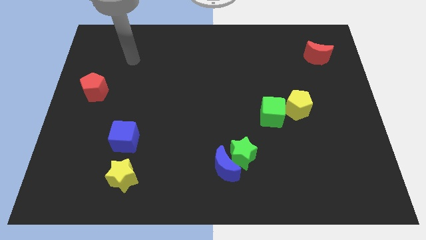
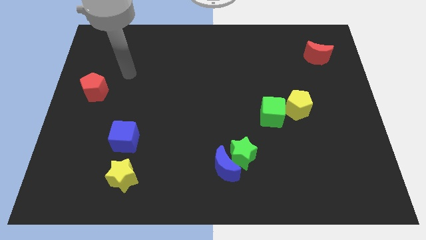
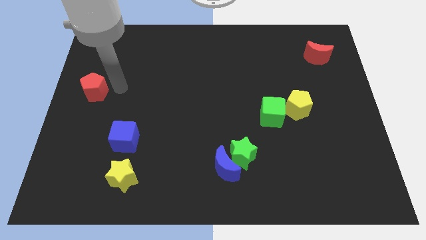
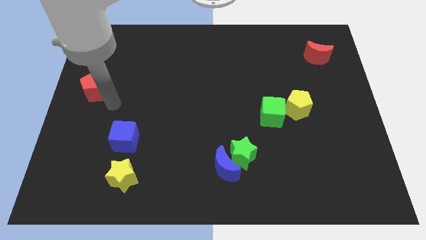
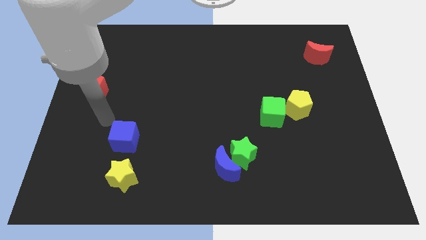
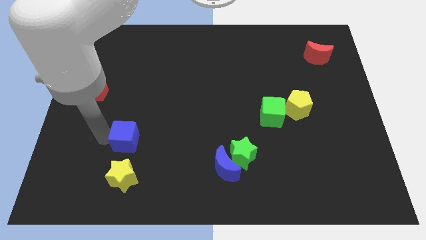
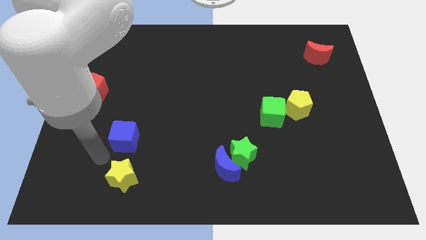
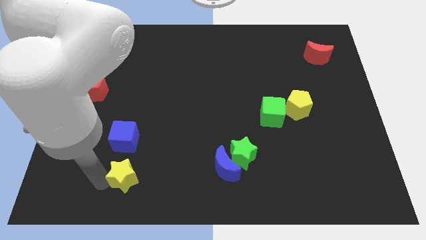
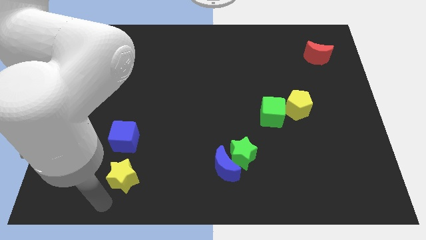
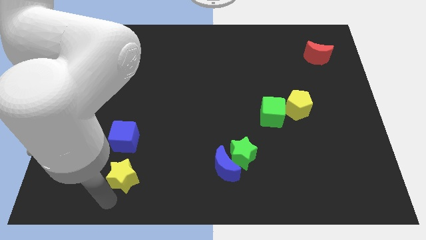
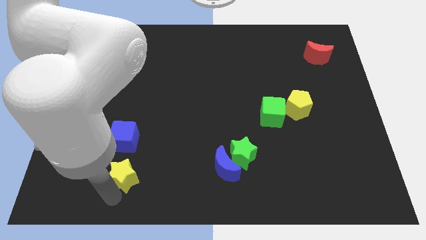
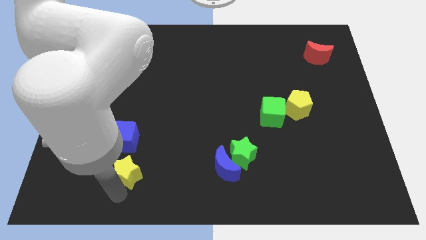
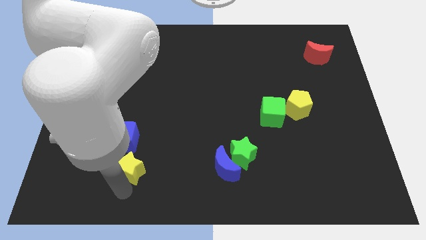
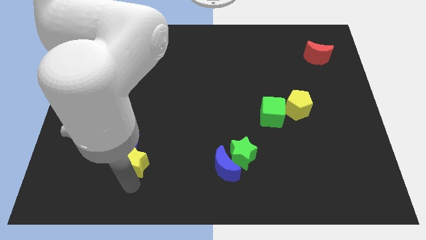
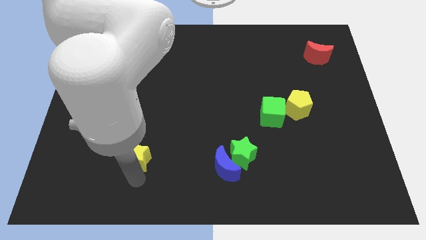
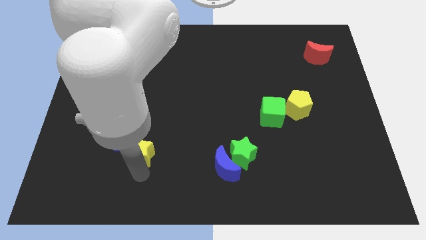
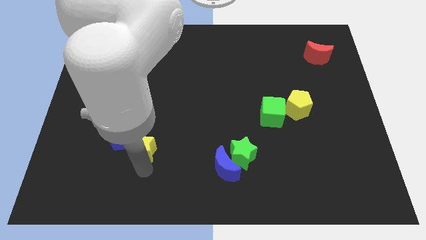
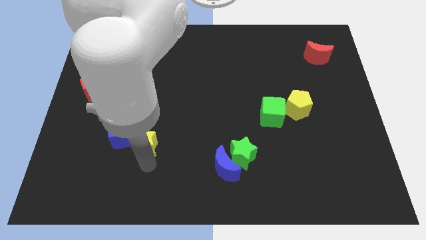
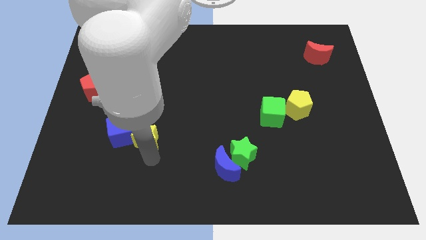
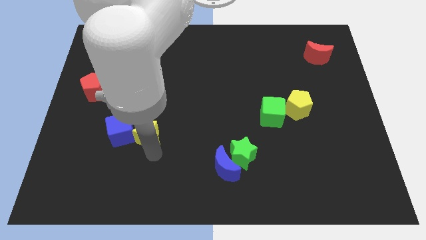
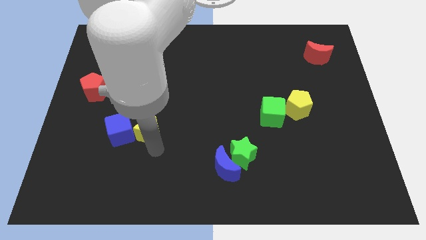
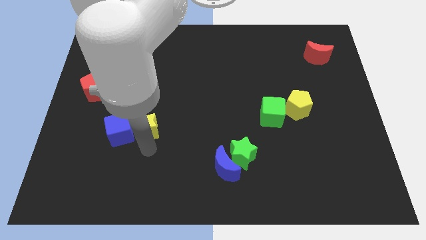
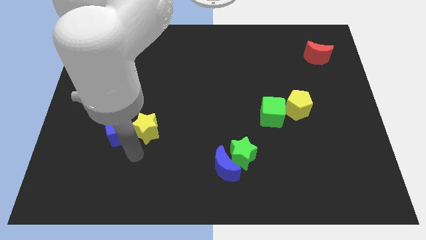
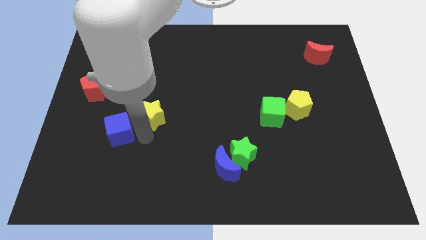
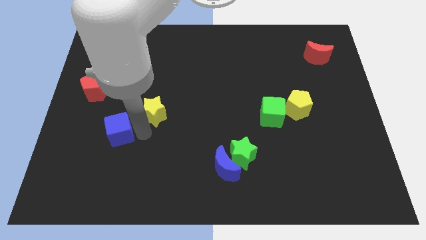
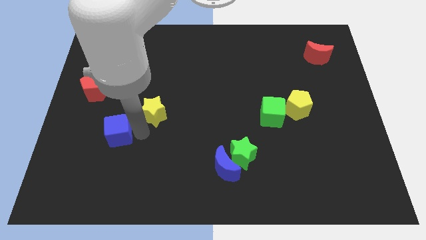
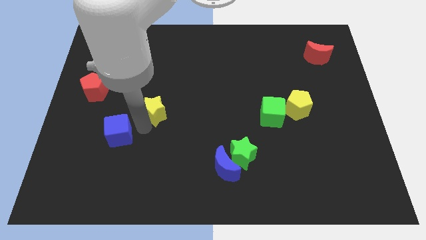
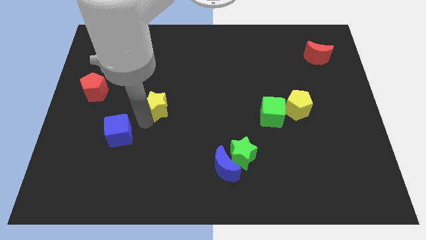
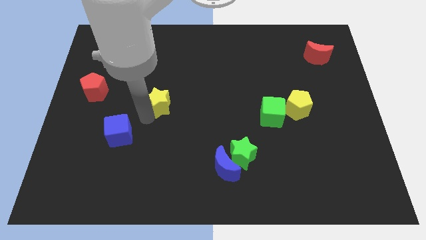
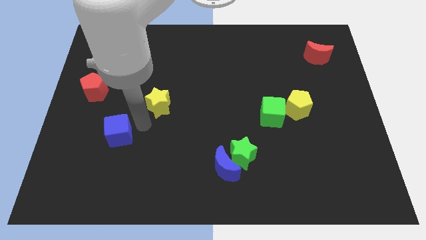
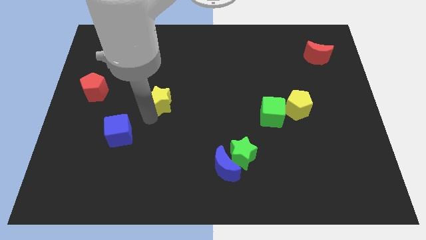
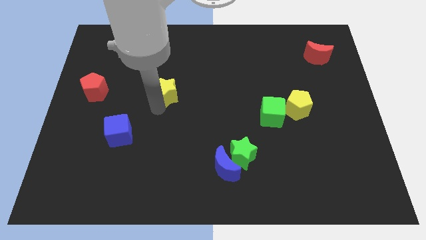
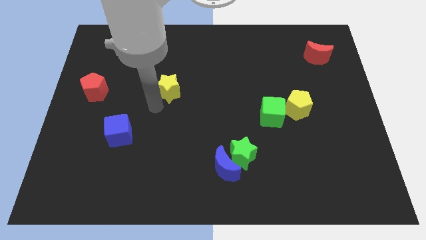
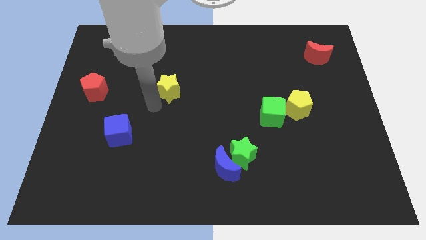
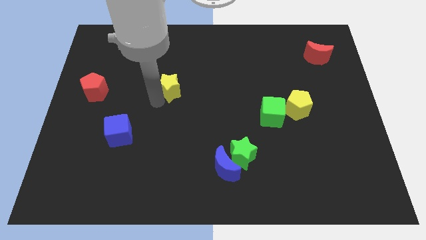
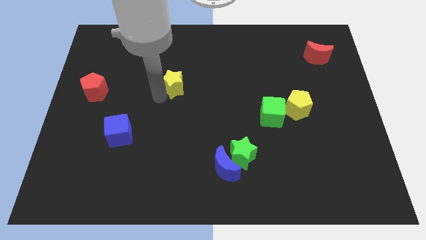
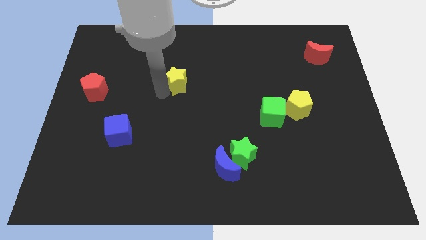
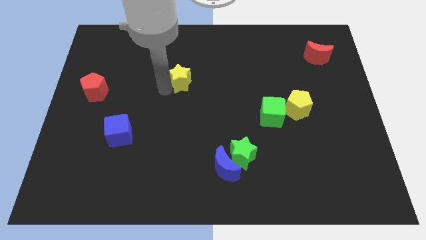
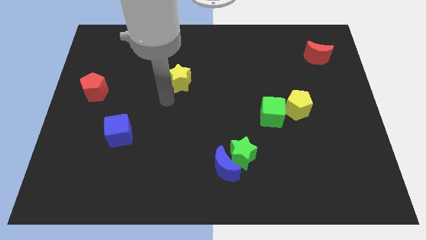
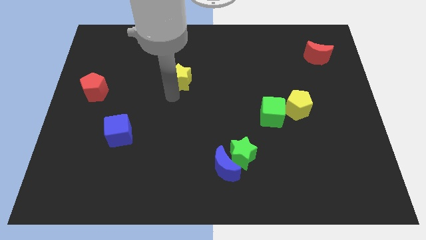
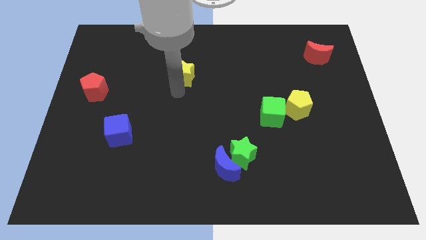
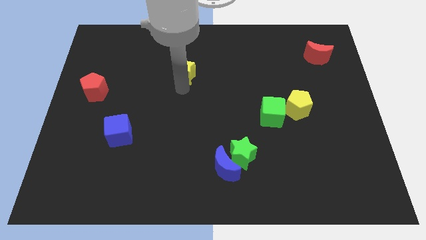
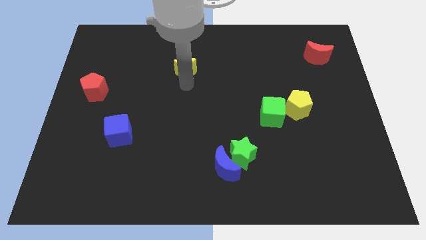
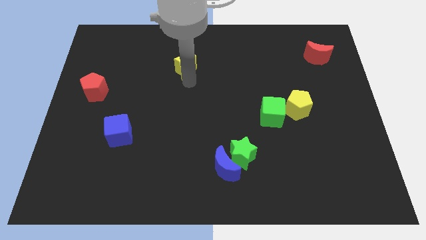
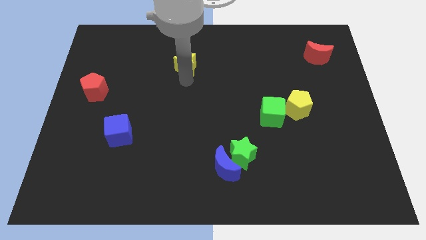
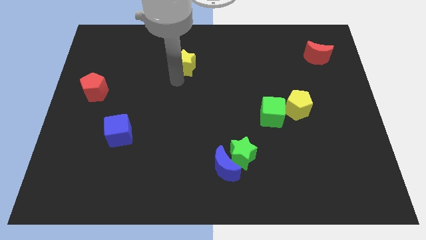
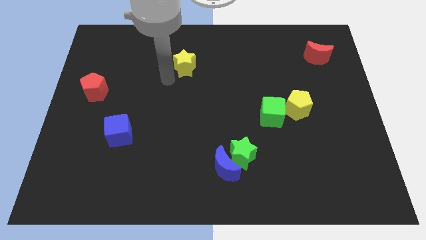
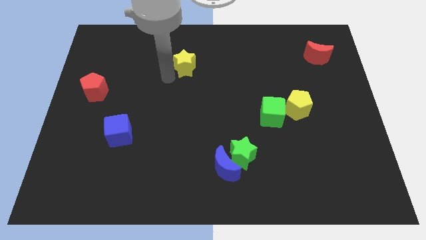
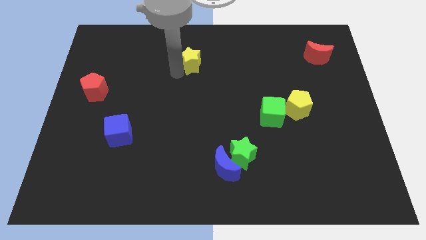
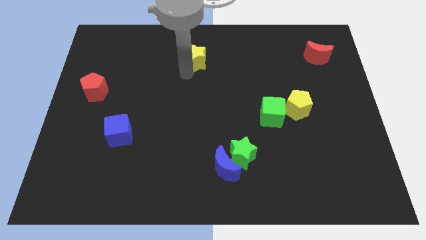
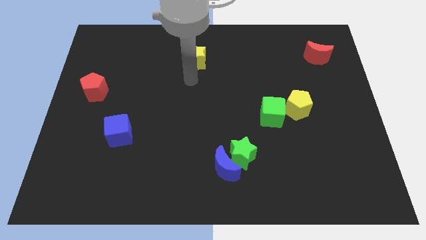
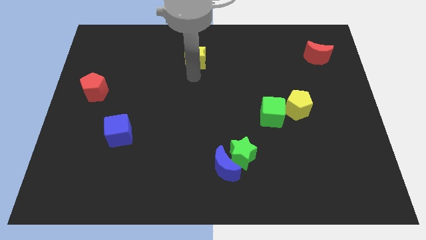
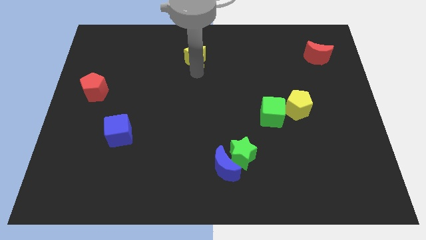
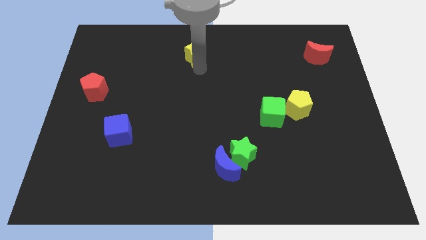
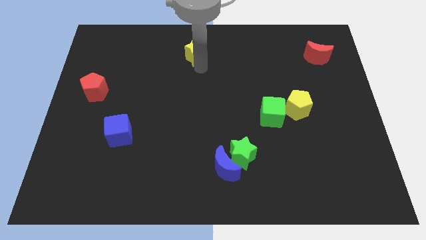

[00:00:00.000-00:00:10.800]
push the yellow star to the top

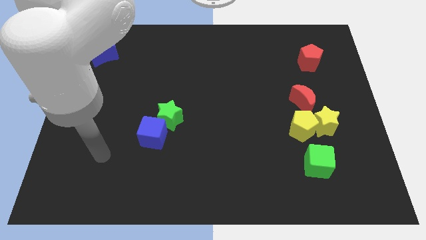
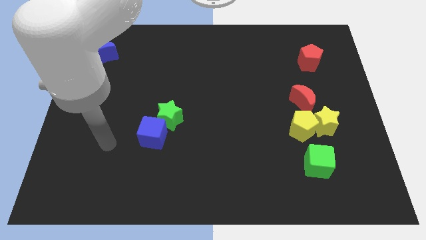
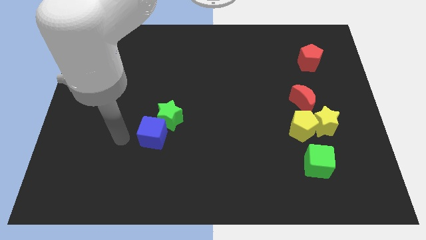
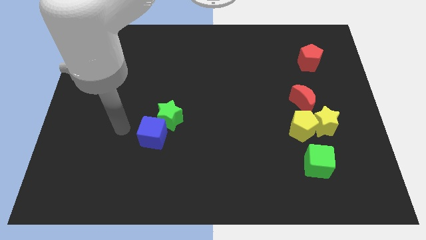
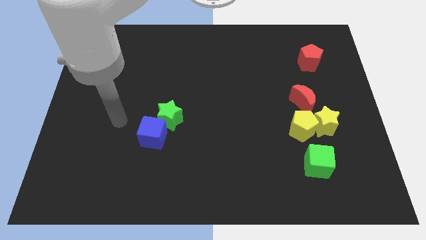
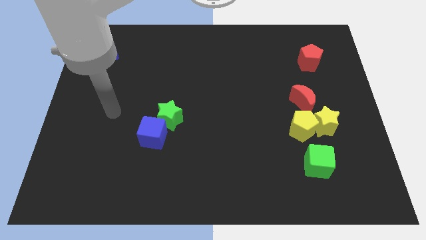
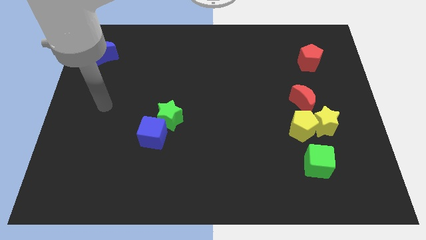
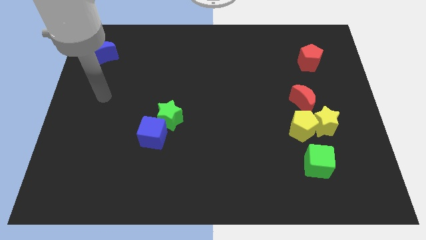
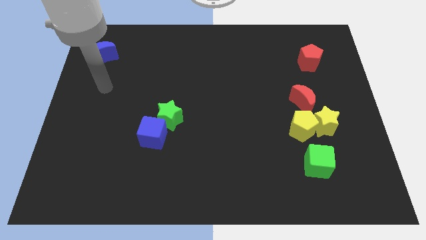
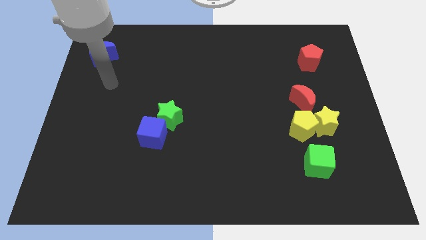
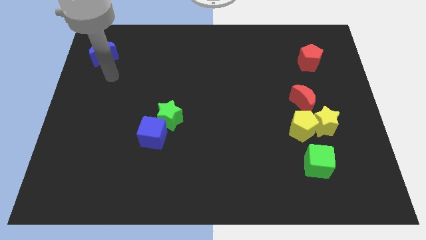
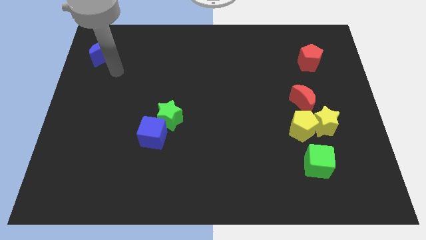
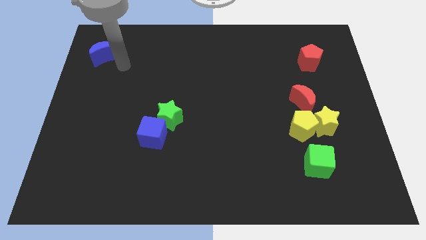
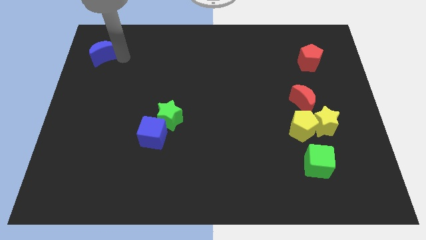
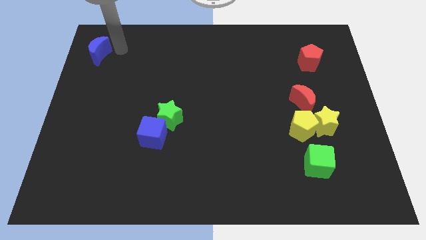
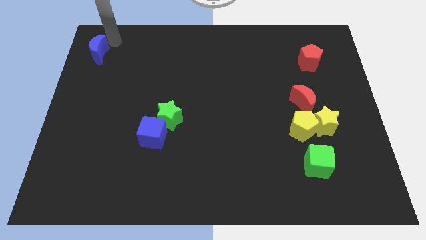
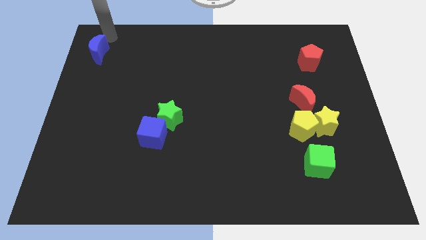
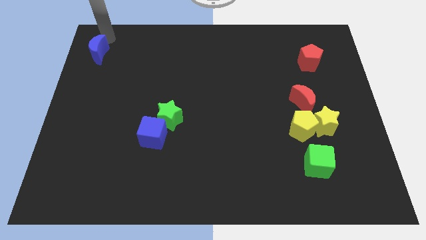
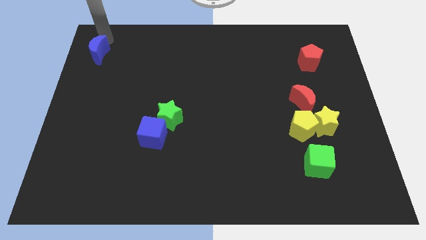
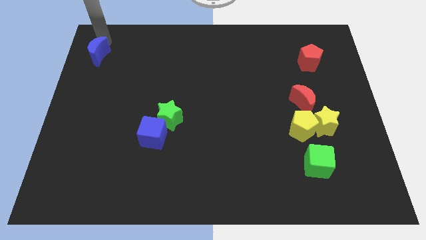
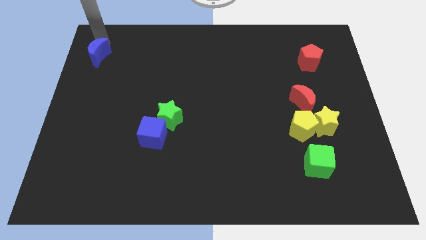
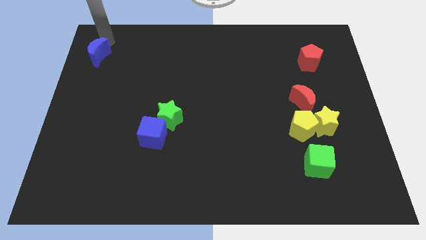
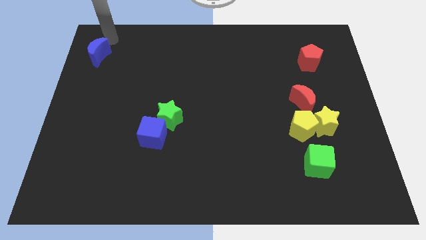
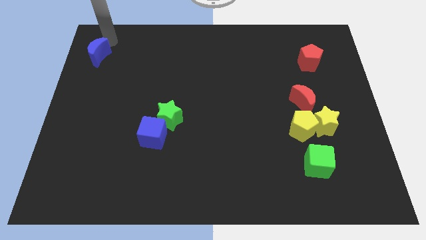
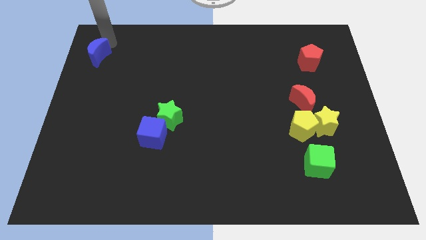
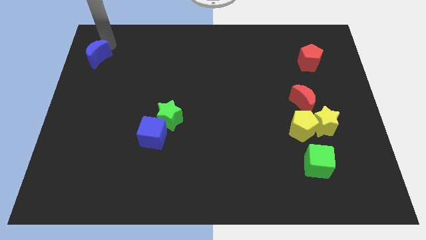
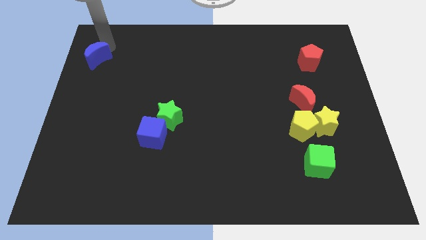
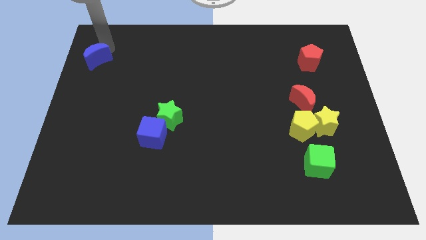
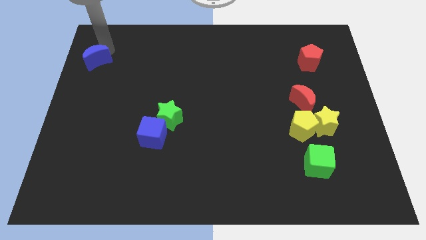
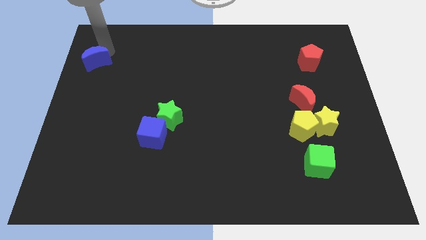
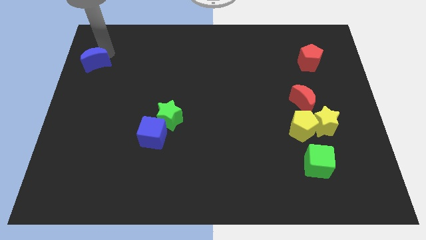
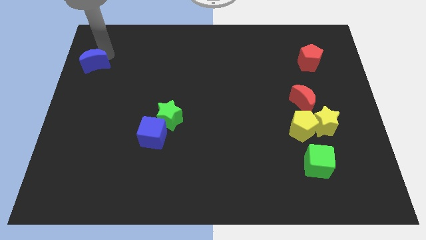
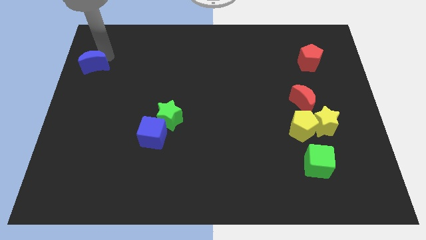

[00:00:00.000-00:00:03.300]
move the blue moon to the left side
